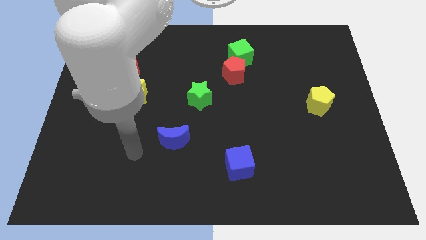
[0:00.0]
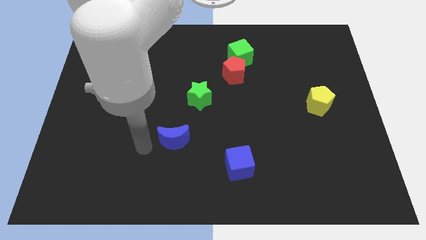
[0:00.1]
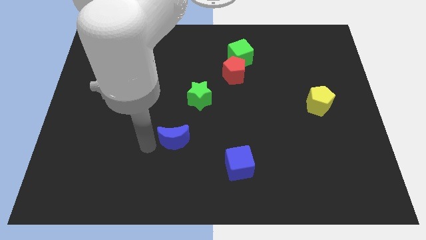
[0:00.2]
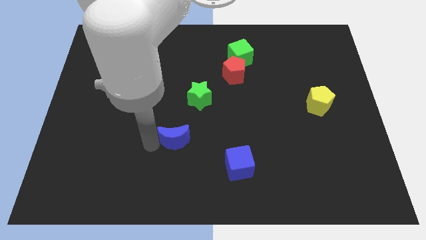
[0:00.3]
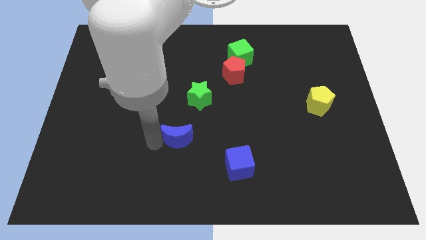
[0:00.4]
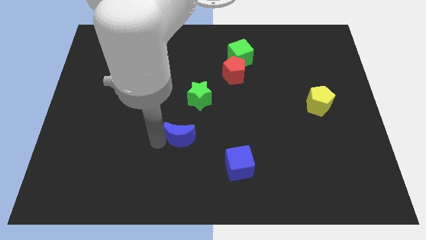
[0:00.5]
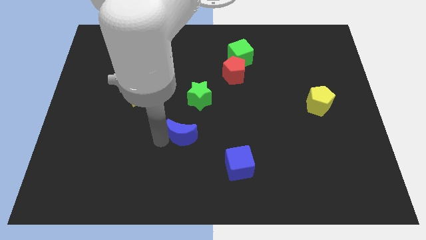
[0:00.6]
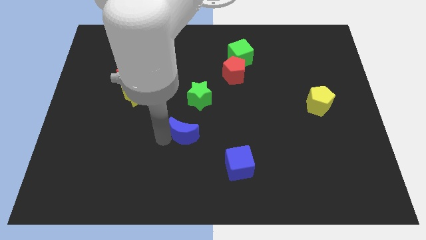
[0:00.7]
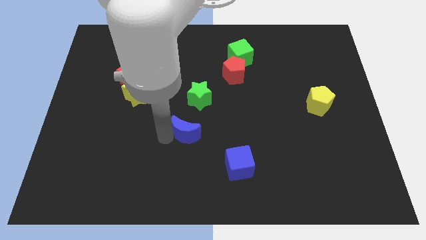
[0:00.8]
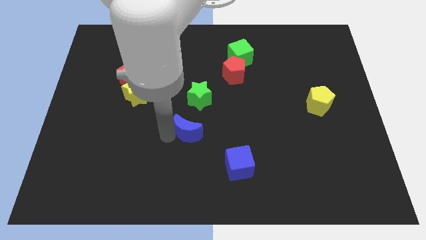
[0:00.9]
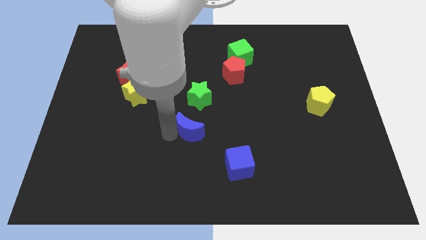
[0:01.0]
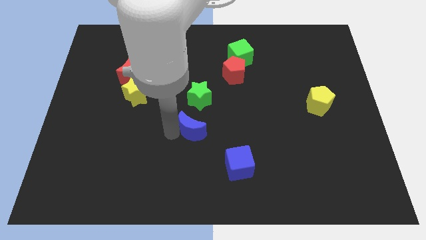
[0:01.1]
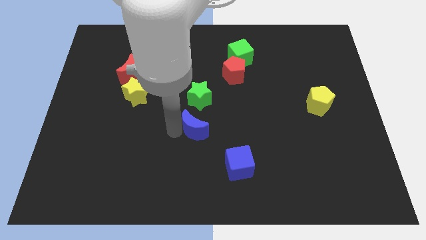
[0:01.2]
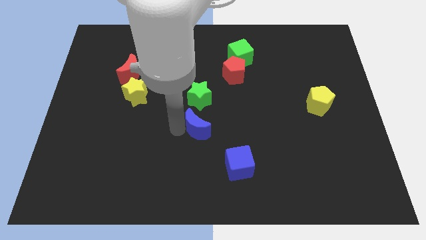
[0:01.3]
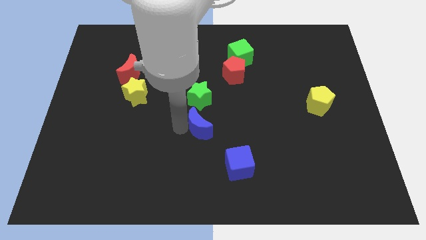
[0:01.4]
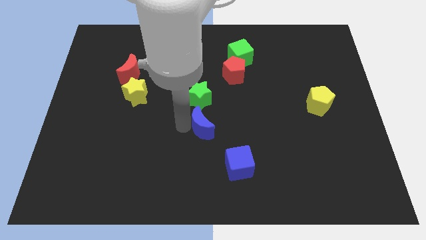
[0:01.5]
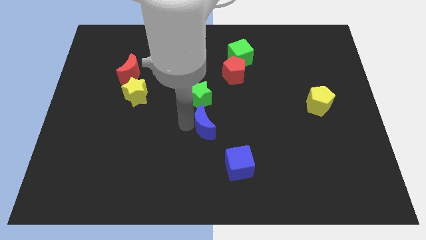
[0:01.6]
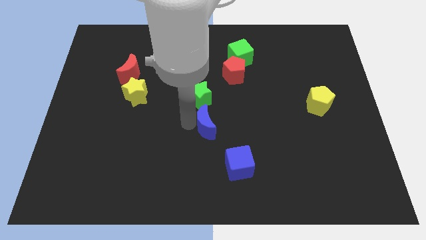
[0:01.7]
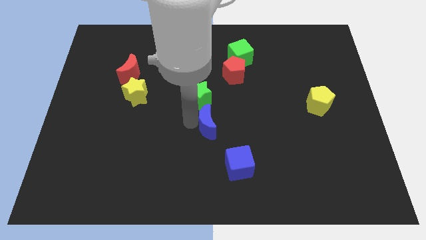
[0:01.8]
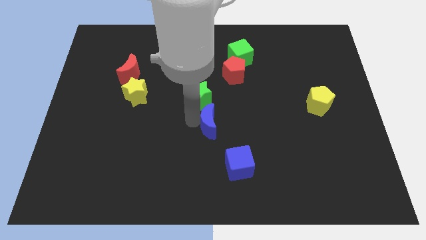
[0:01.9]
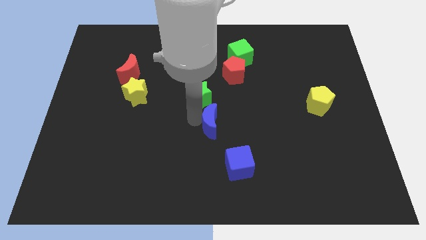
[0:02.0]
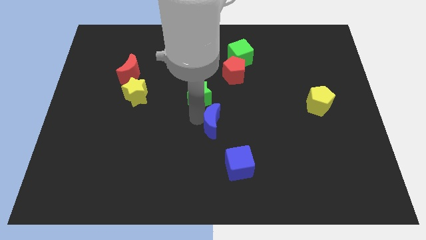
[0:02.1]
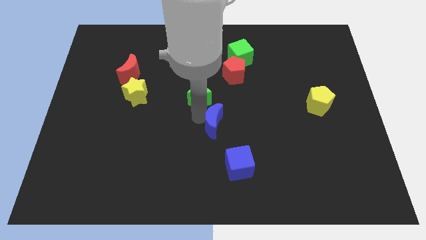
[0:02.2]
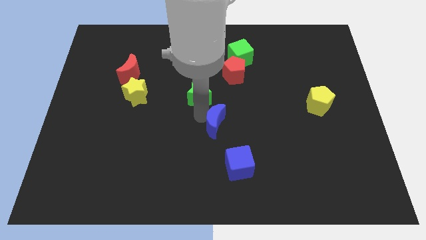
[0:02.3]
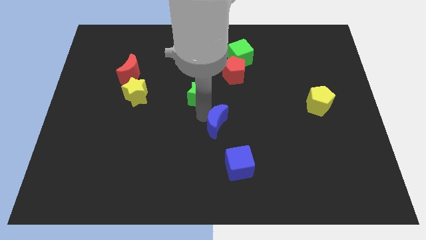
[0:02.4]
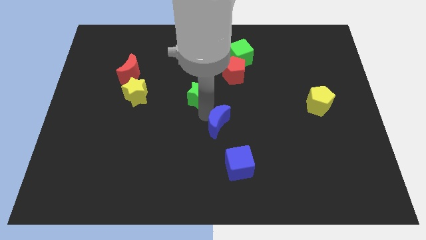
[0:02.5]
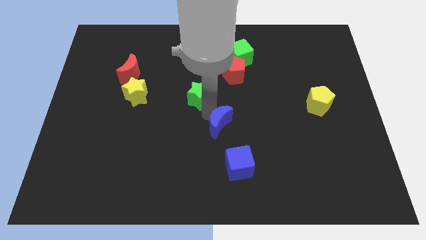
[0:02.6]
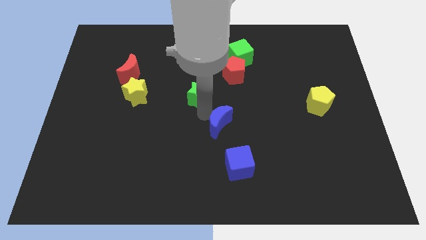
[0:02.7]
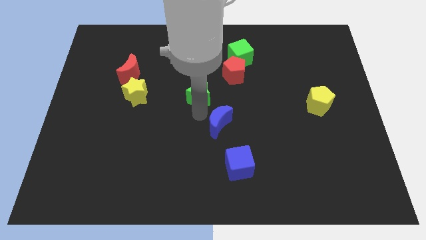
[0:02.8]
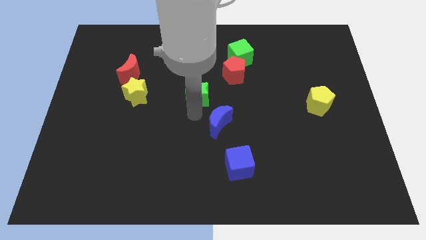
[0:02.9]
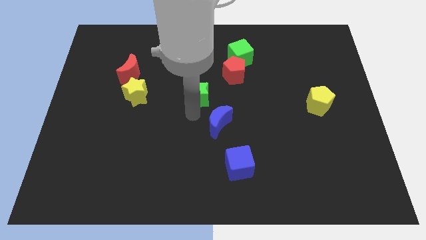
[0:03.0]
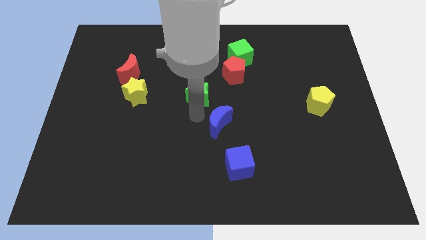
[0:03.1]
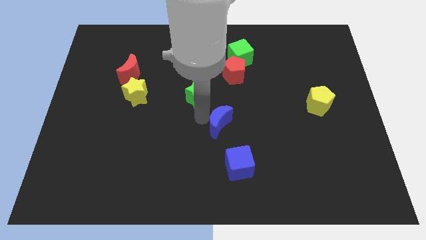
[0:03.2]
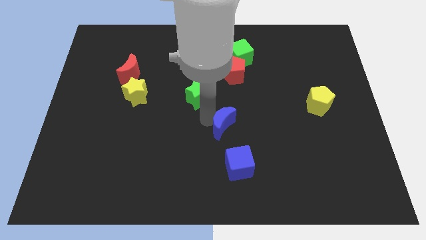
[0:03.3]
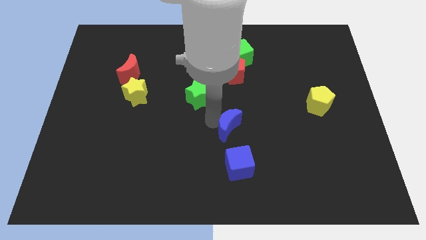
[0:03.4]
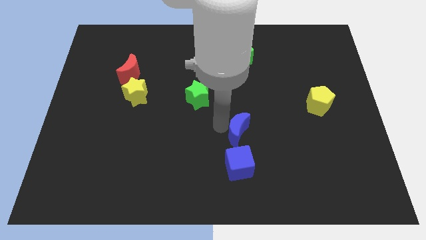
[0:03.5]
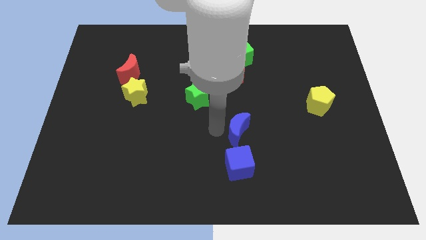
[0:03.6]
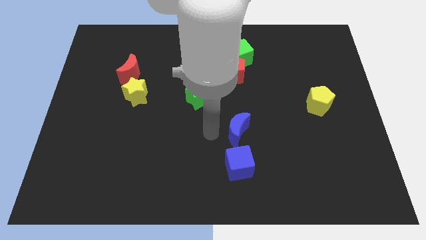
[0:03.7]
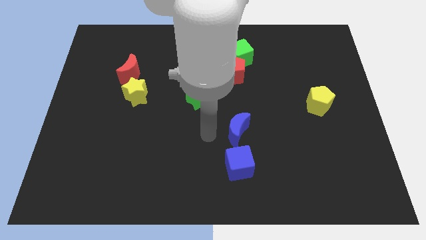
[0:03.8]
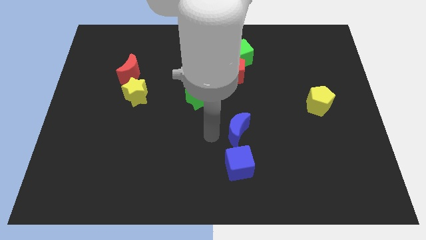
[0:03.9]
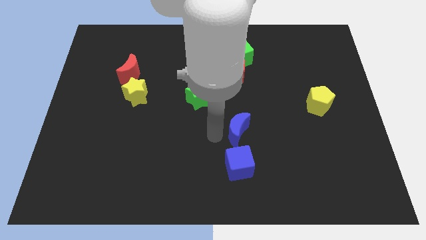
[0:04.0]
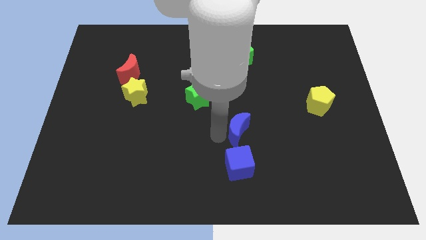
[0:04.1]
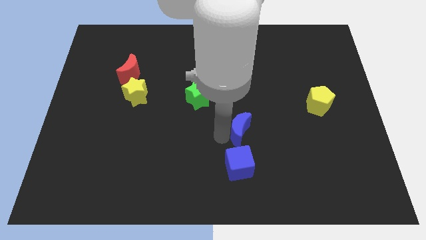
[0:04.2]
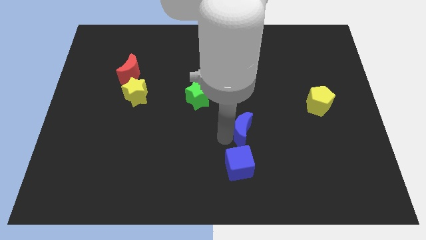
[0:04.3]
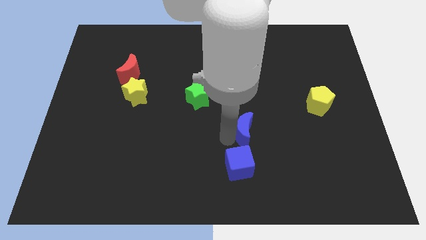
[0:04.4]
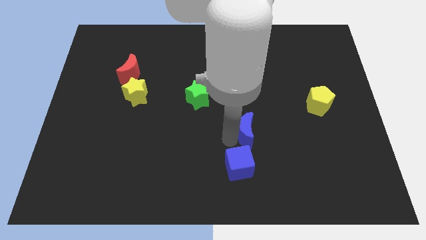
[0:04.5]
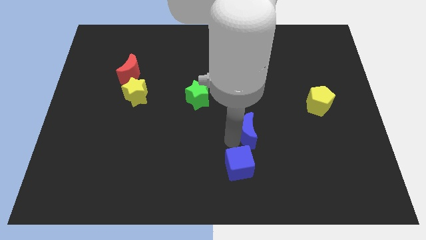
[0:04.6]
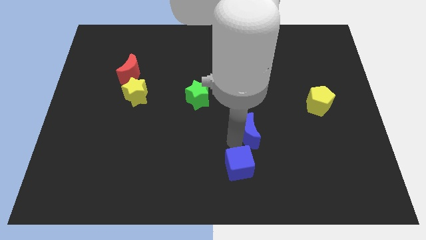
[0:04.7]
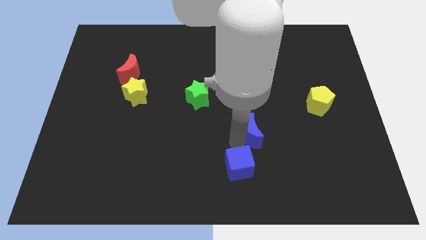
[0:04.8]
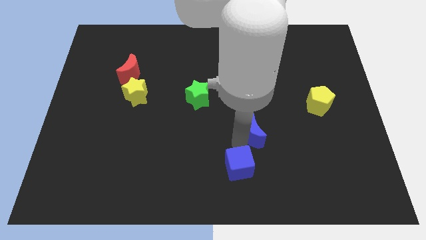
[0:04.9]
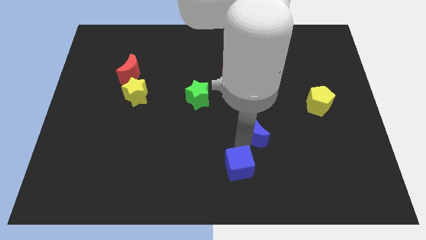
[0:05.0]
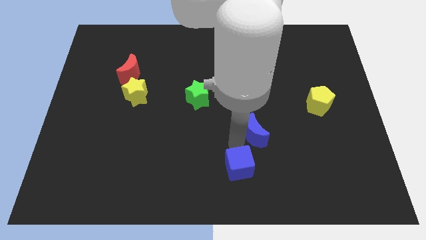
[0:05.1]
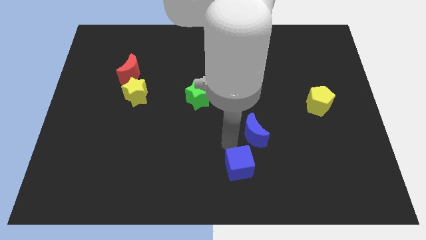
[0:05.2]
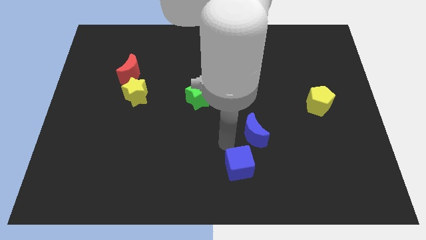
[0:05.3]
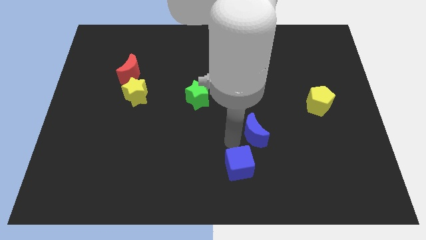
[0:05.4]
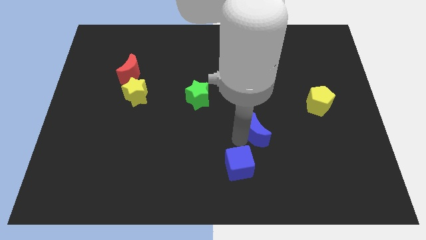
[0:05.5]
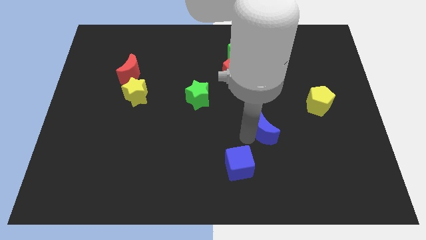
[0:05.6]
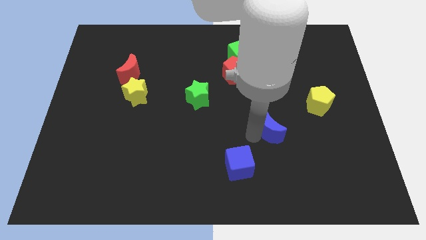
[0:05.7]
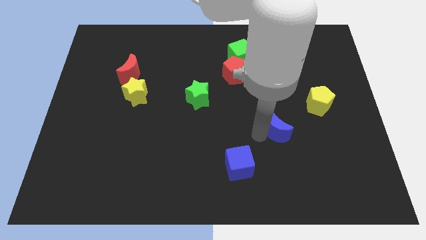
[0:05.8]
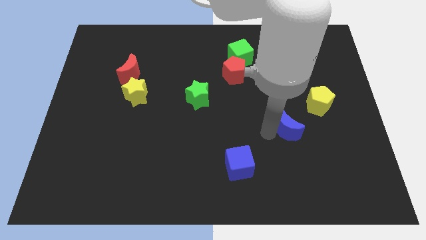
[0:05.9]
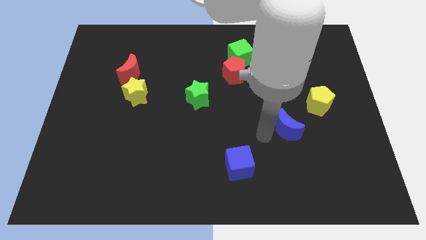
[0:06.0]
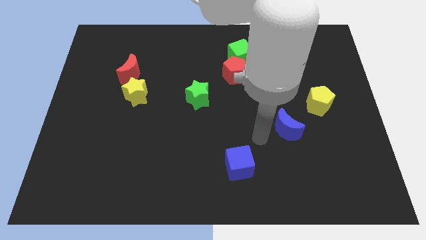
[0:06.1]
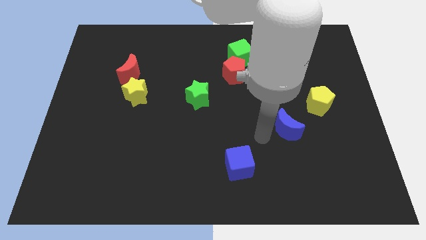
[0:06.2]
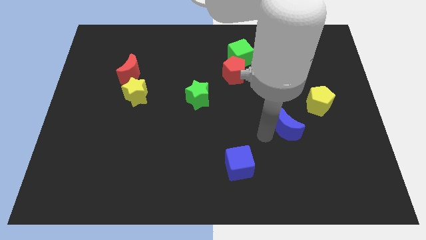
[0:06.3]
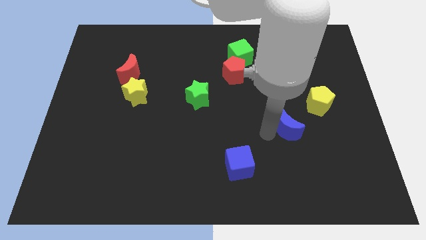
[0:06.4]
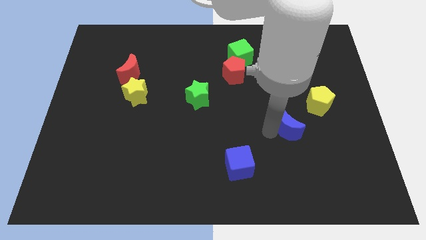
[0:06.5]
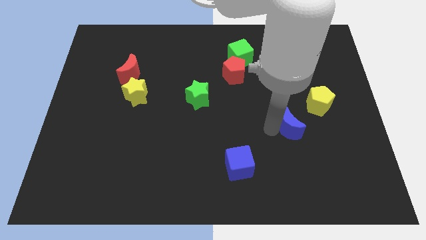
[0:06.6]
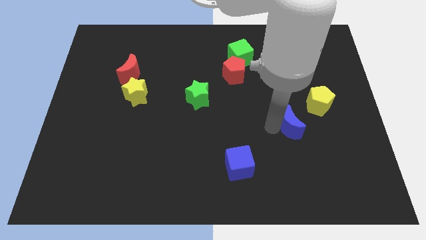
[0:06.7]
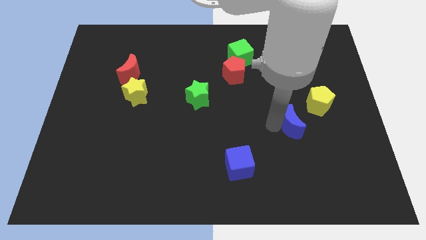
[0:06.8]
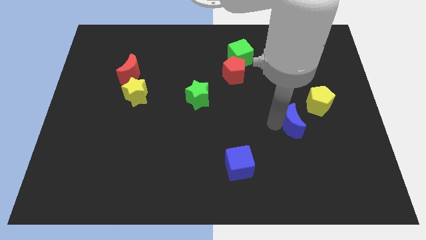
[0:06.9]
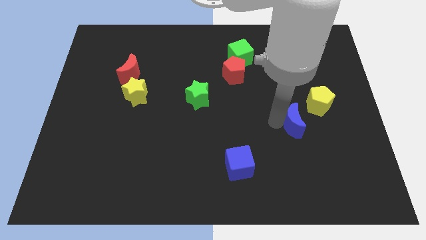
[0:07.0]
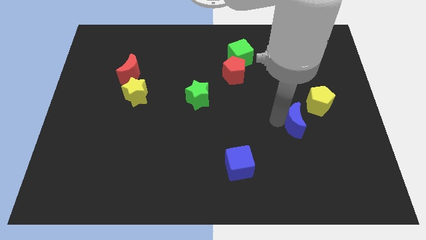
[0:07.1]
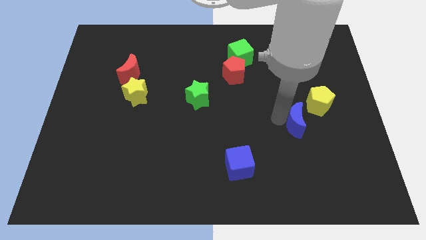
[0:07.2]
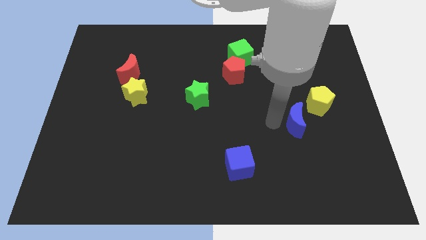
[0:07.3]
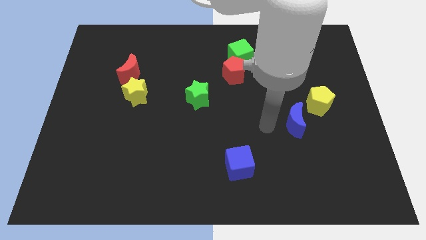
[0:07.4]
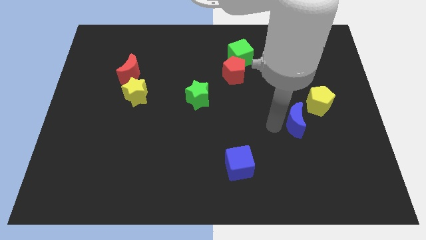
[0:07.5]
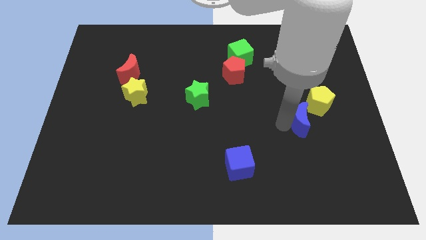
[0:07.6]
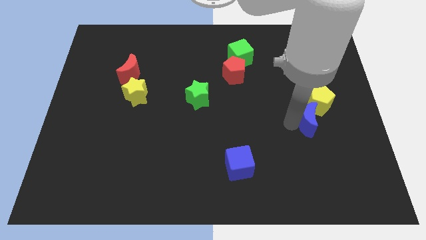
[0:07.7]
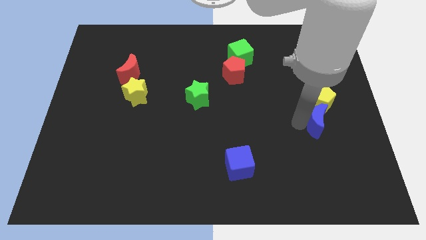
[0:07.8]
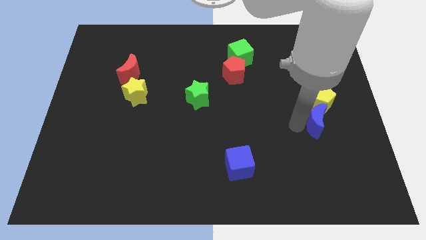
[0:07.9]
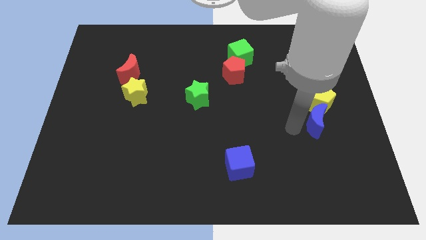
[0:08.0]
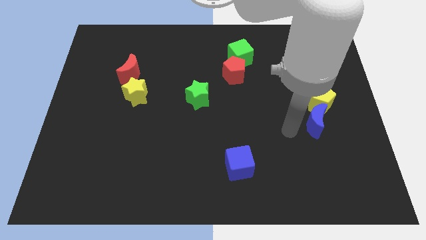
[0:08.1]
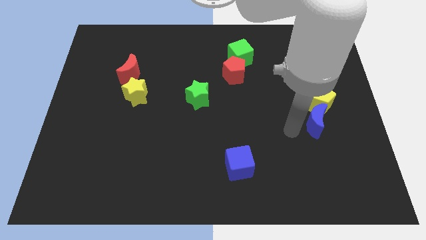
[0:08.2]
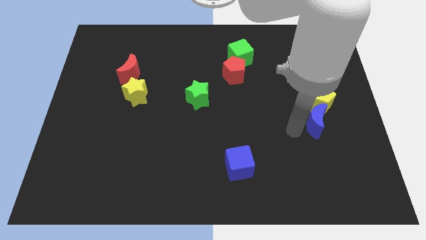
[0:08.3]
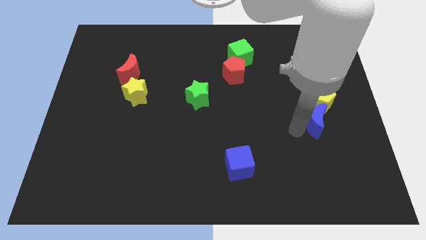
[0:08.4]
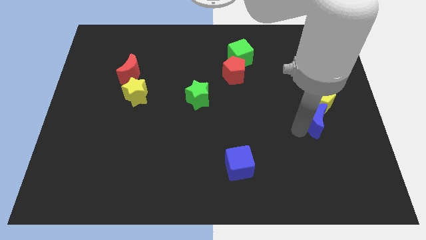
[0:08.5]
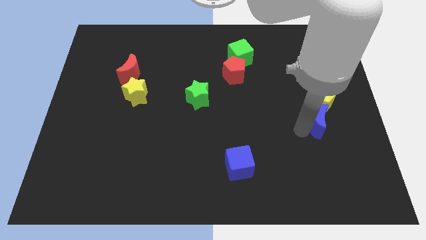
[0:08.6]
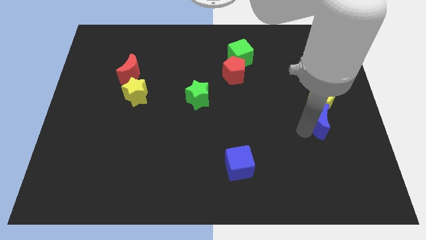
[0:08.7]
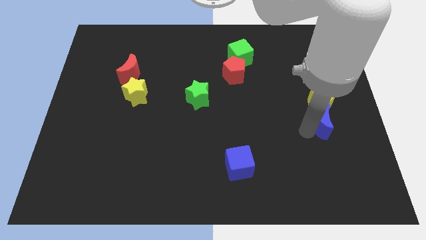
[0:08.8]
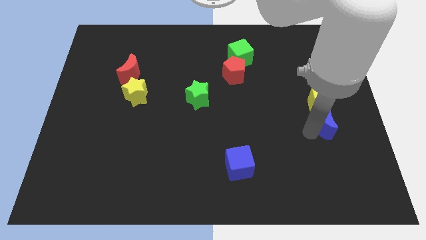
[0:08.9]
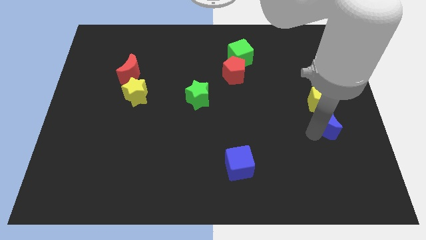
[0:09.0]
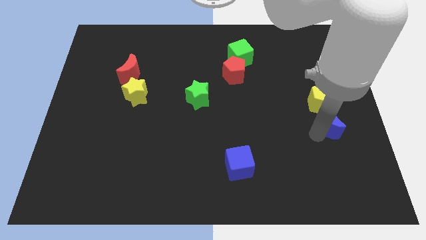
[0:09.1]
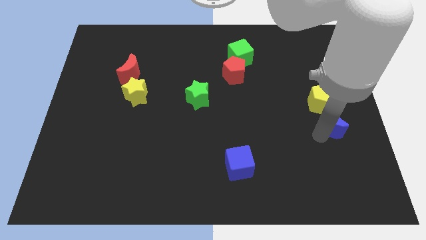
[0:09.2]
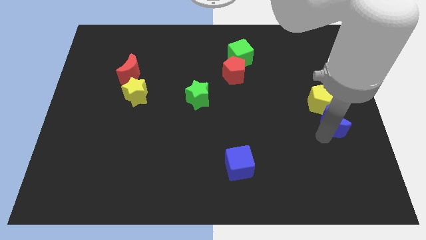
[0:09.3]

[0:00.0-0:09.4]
push the blue moon to the right side of the board
